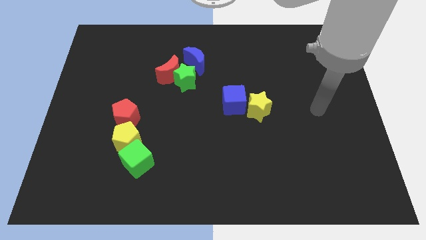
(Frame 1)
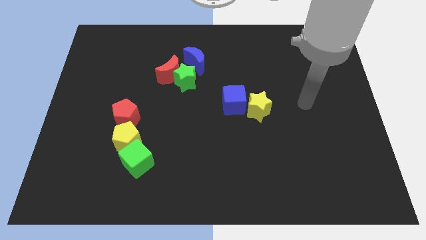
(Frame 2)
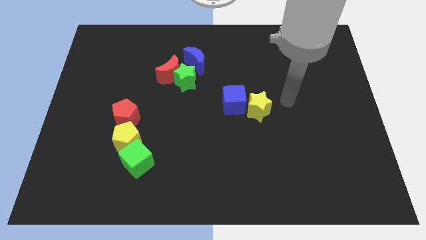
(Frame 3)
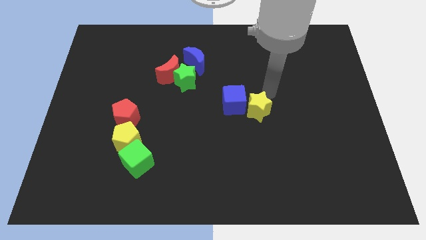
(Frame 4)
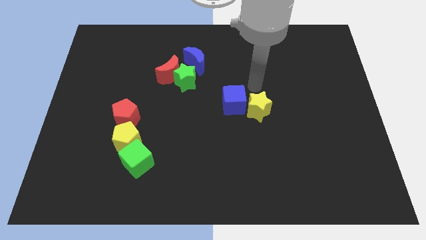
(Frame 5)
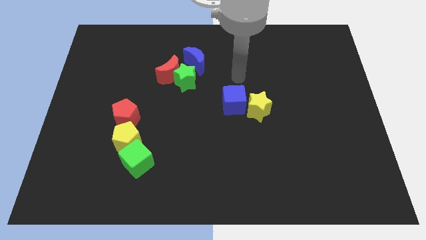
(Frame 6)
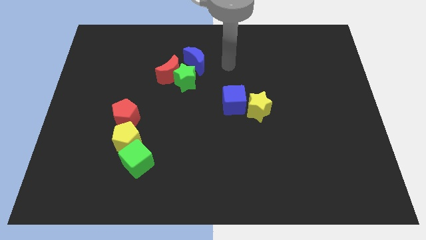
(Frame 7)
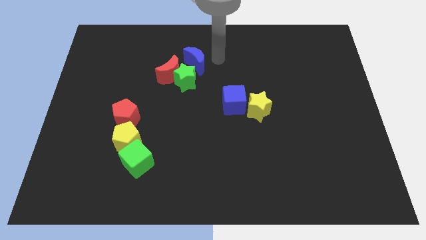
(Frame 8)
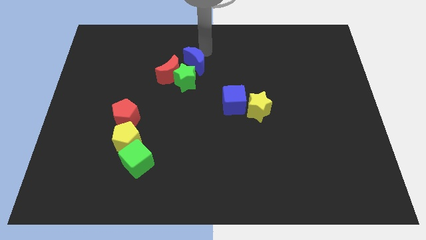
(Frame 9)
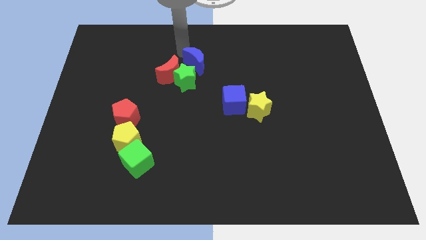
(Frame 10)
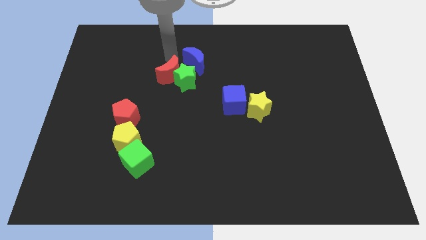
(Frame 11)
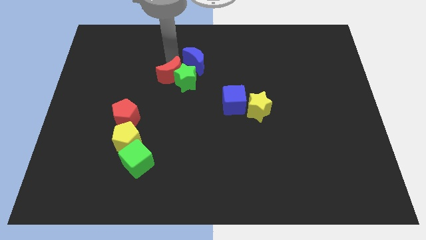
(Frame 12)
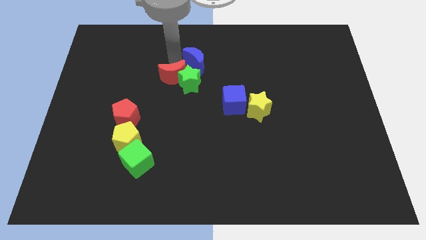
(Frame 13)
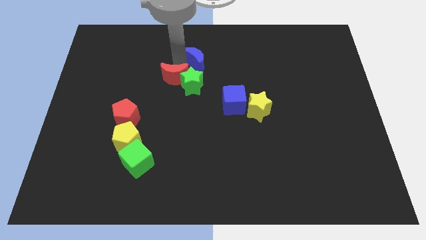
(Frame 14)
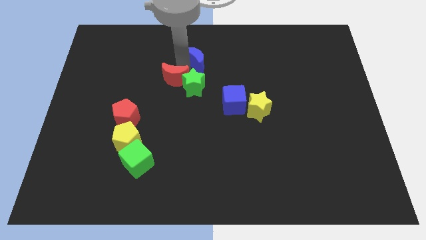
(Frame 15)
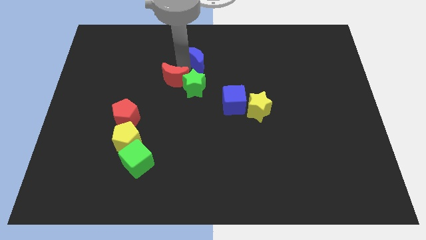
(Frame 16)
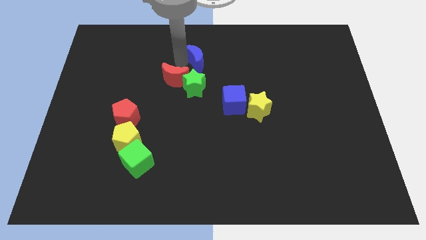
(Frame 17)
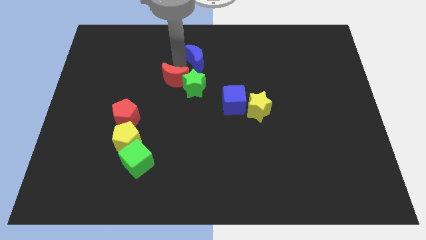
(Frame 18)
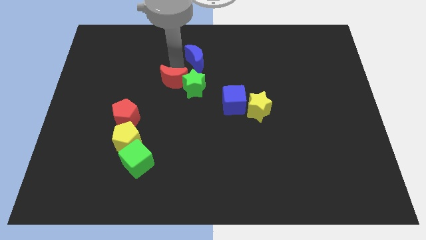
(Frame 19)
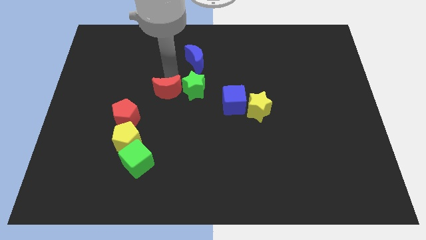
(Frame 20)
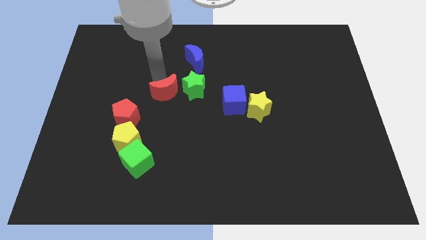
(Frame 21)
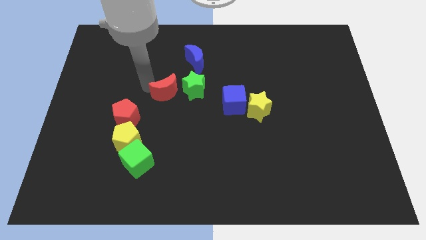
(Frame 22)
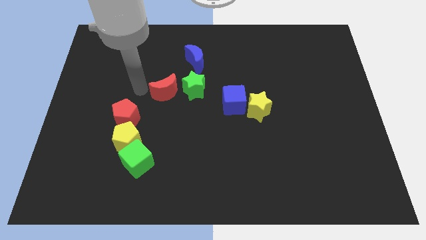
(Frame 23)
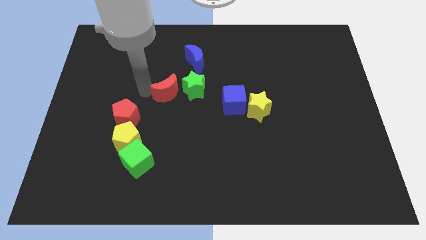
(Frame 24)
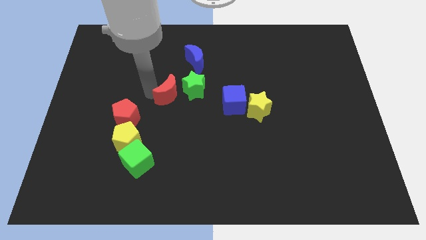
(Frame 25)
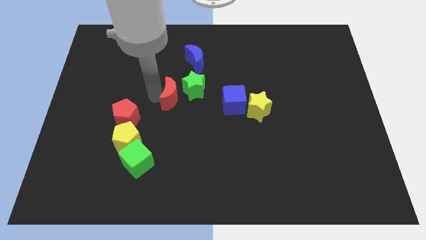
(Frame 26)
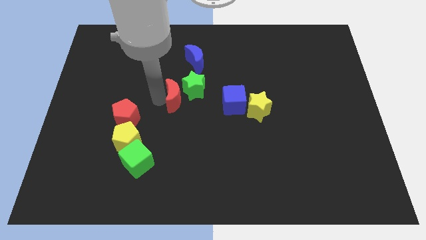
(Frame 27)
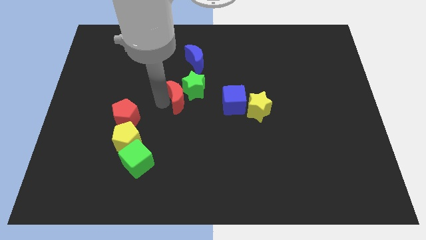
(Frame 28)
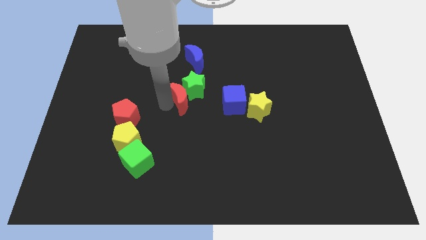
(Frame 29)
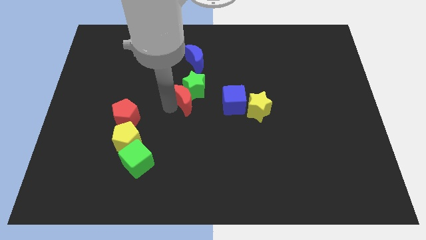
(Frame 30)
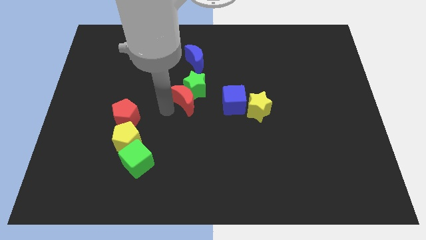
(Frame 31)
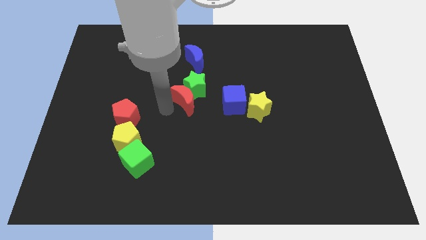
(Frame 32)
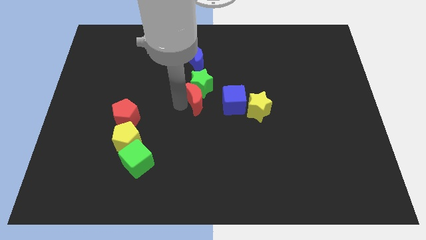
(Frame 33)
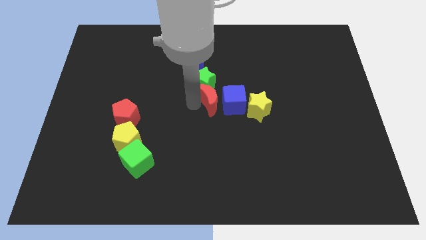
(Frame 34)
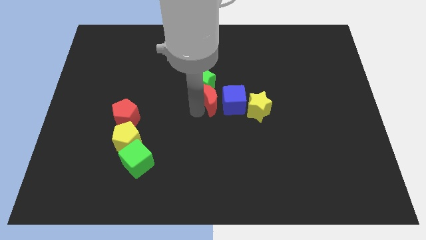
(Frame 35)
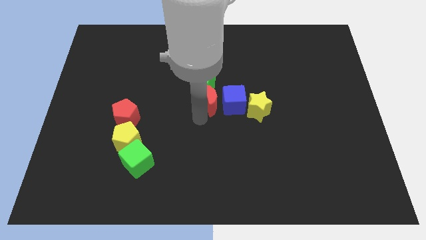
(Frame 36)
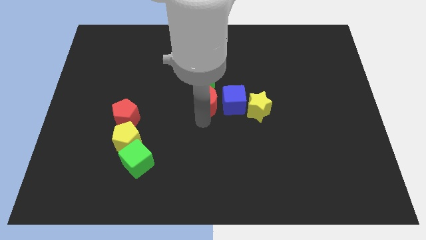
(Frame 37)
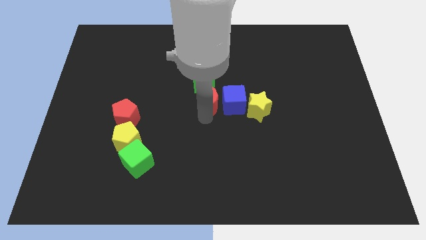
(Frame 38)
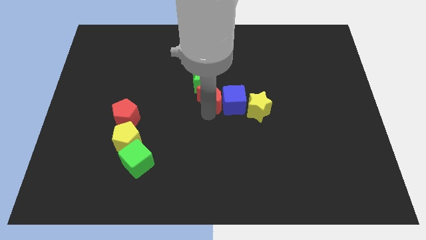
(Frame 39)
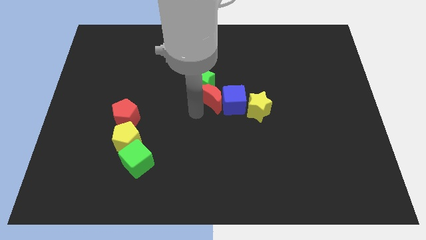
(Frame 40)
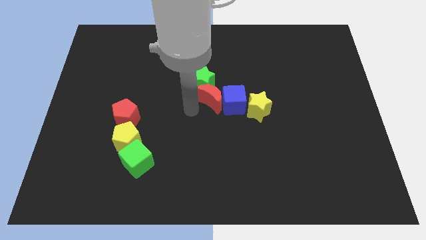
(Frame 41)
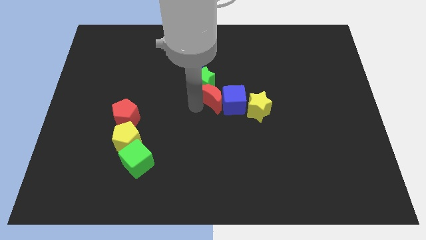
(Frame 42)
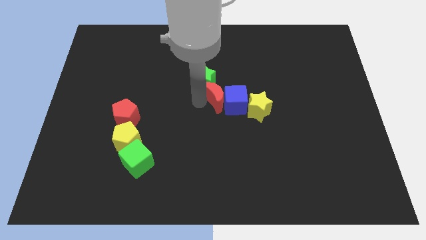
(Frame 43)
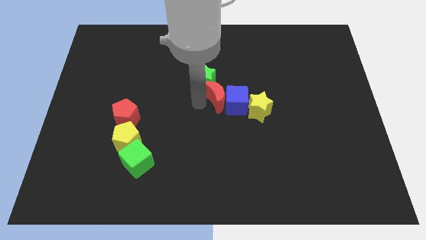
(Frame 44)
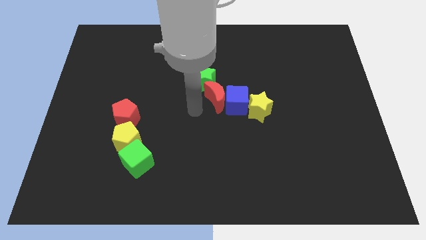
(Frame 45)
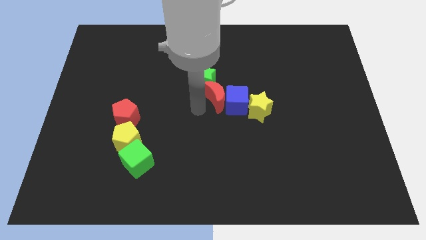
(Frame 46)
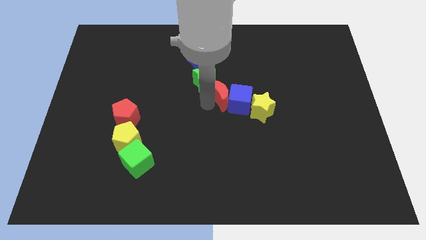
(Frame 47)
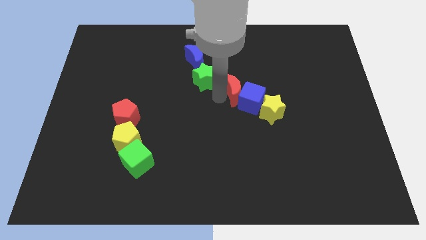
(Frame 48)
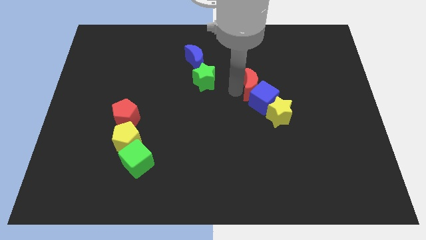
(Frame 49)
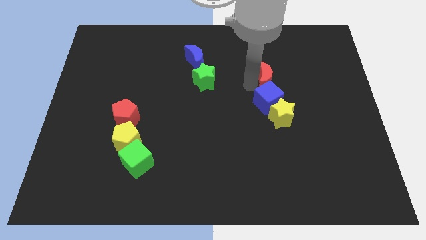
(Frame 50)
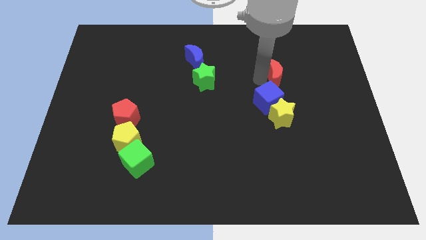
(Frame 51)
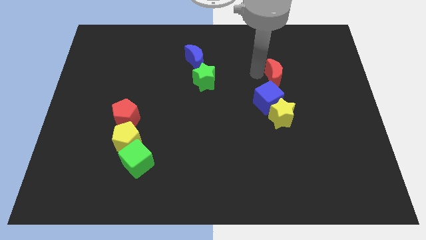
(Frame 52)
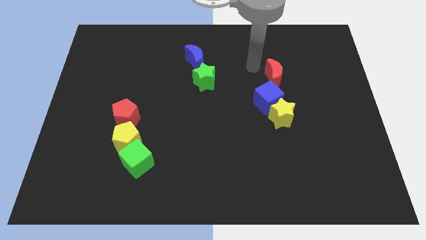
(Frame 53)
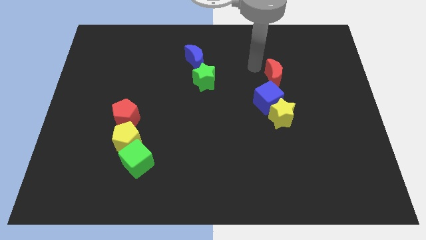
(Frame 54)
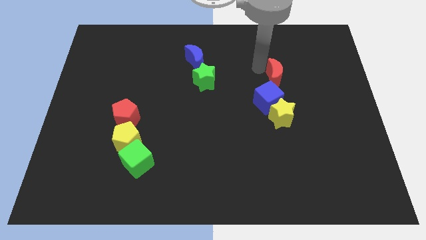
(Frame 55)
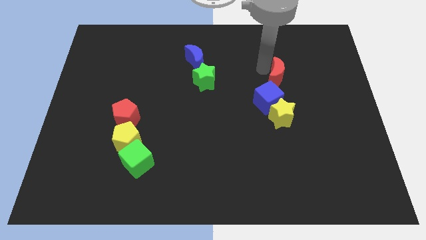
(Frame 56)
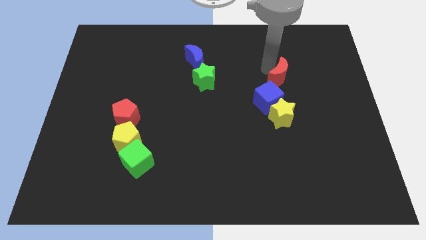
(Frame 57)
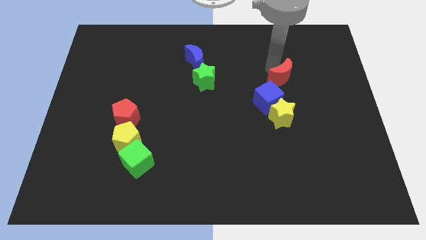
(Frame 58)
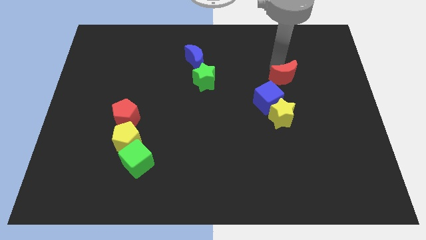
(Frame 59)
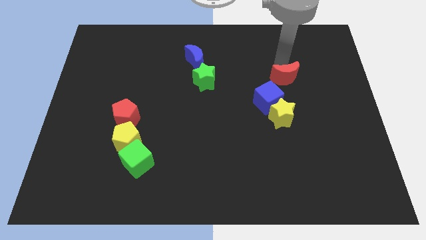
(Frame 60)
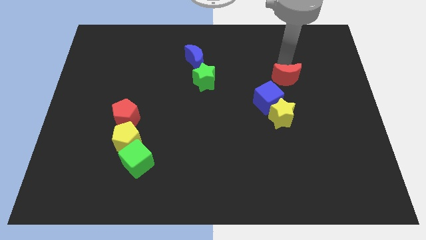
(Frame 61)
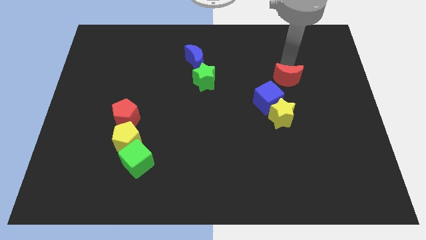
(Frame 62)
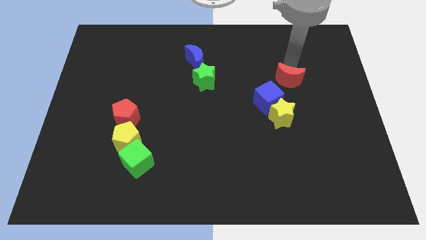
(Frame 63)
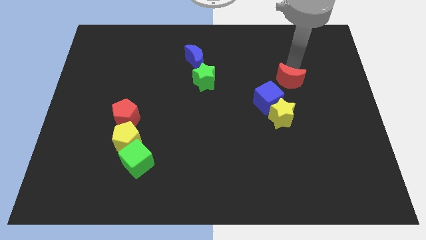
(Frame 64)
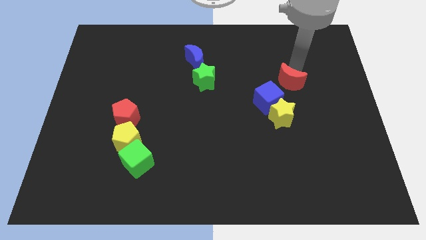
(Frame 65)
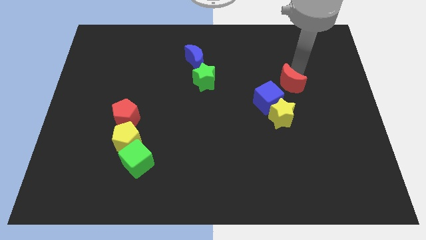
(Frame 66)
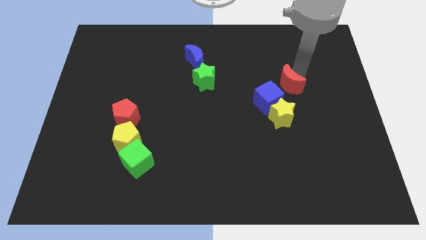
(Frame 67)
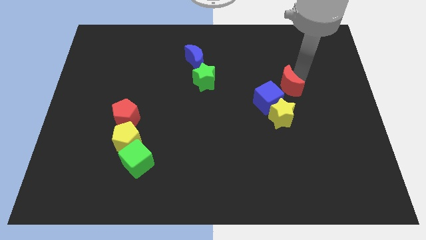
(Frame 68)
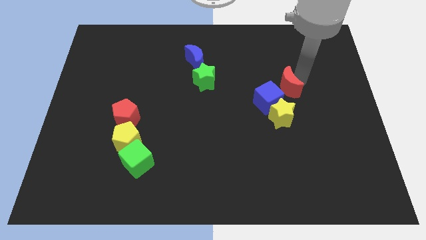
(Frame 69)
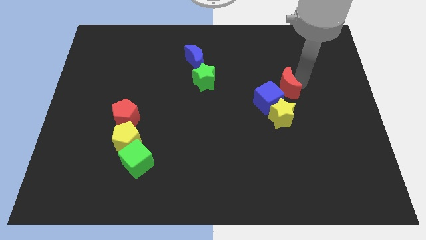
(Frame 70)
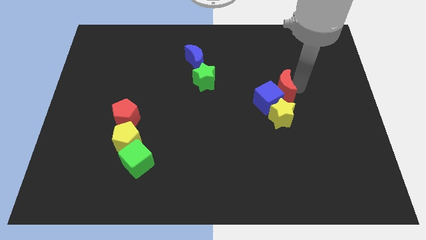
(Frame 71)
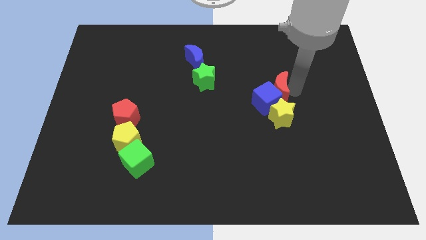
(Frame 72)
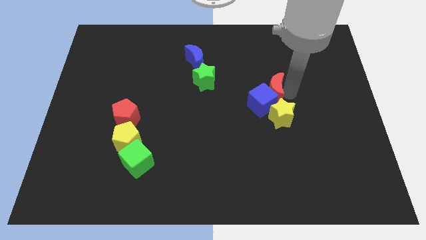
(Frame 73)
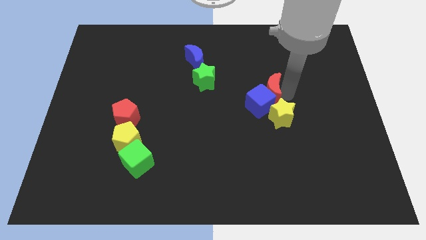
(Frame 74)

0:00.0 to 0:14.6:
push the red moon to the top right of the blue cube

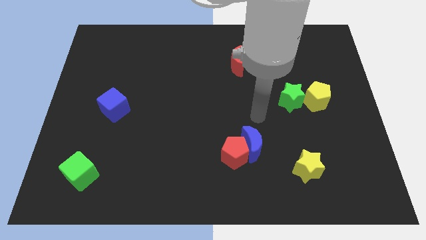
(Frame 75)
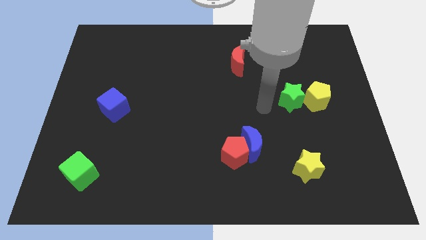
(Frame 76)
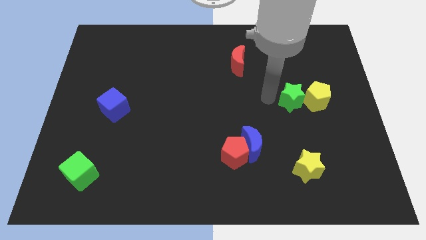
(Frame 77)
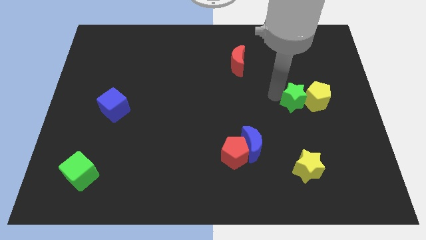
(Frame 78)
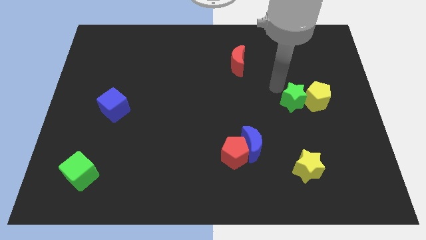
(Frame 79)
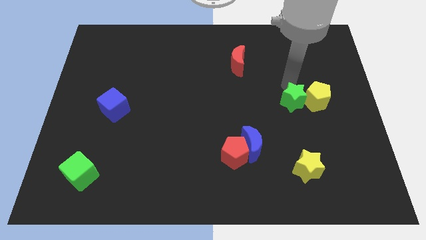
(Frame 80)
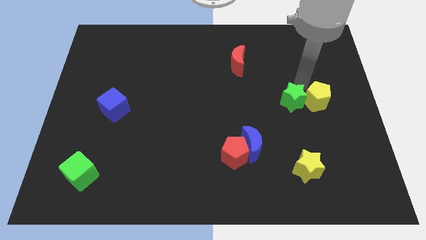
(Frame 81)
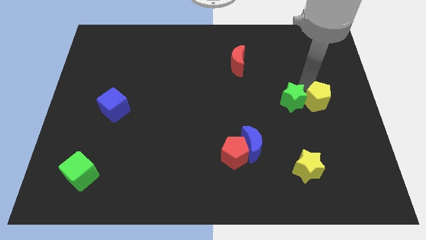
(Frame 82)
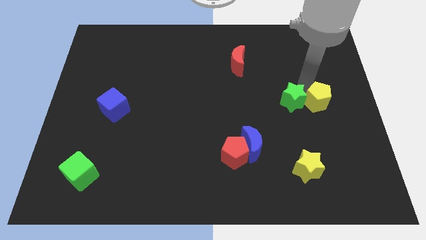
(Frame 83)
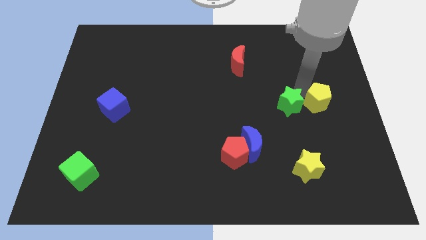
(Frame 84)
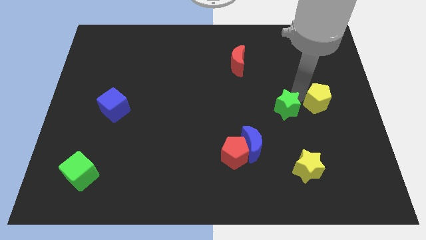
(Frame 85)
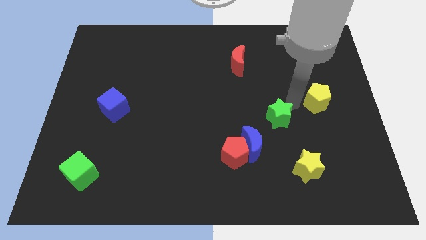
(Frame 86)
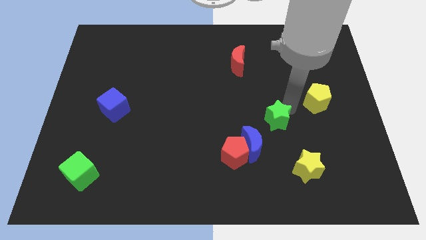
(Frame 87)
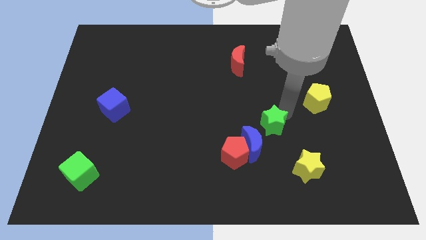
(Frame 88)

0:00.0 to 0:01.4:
move the green star to the top right of the red pentagon
